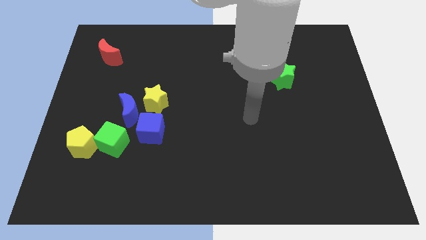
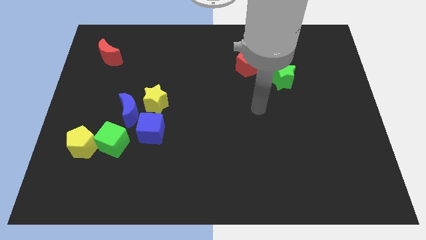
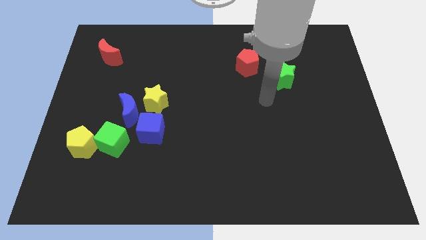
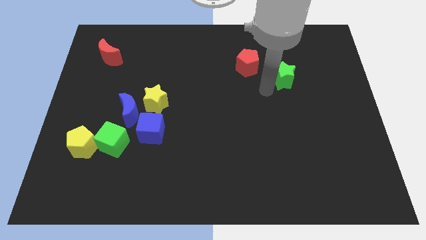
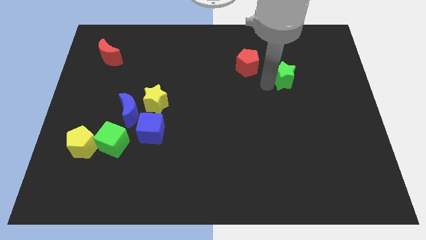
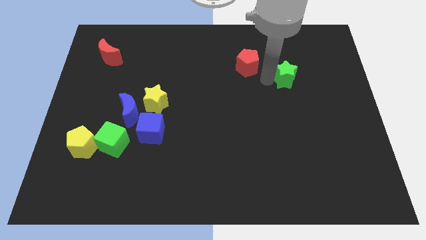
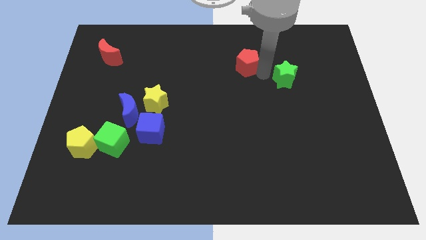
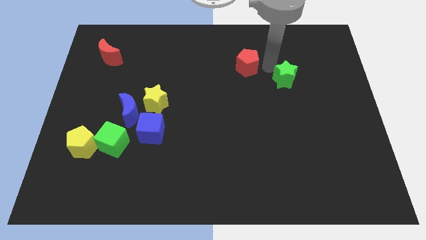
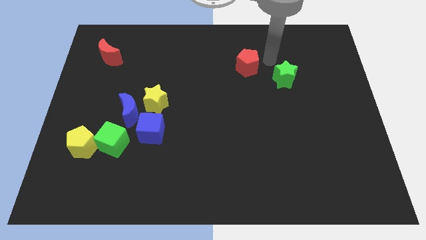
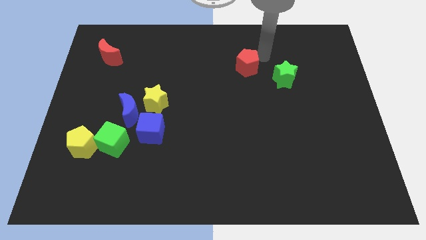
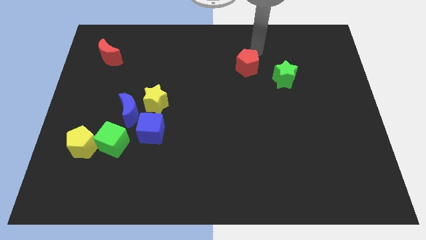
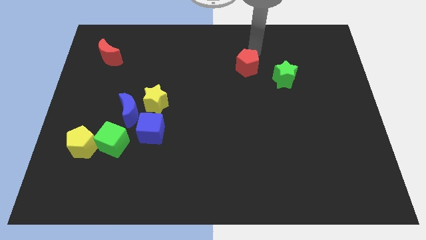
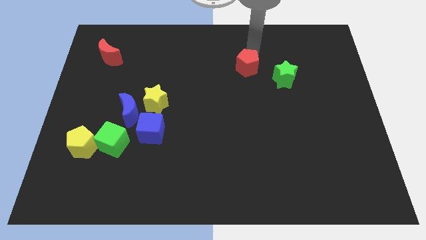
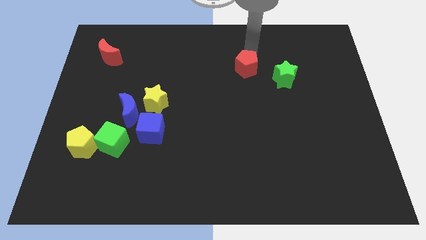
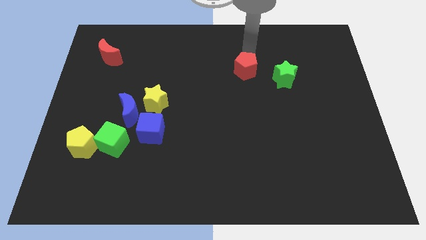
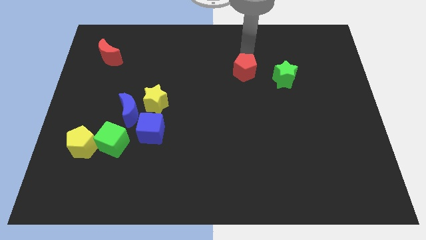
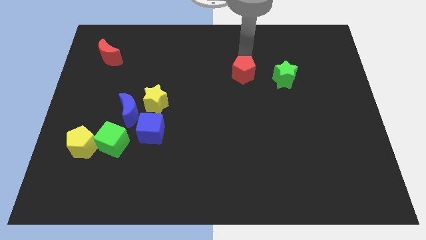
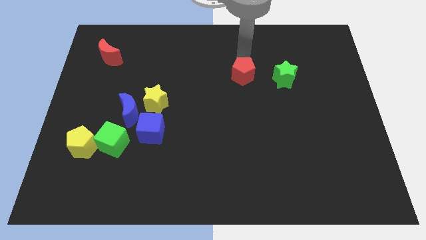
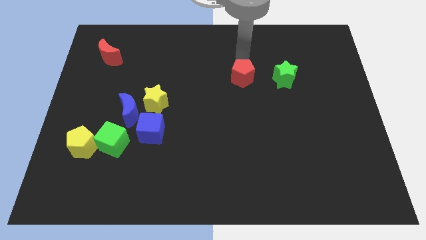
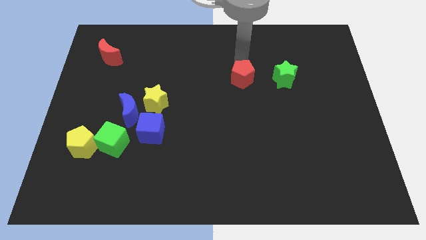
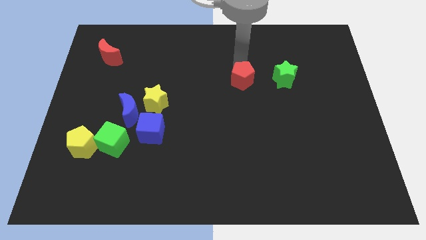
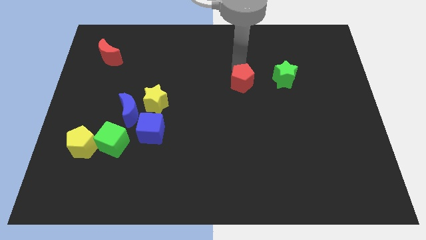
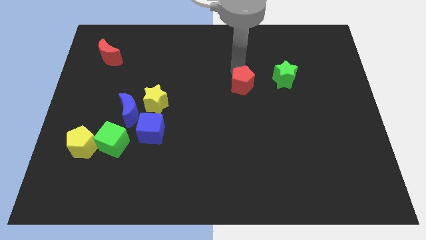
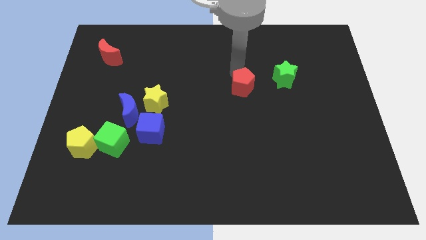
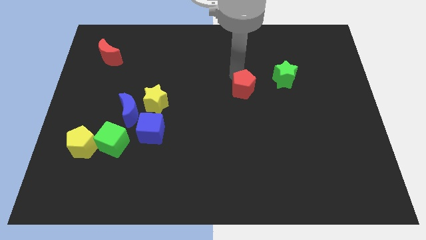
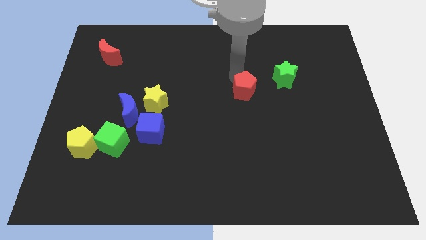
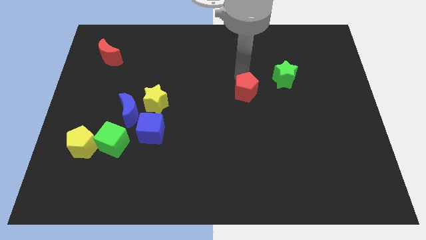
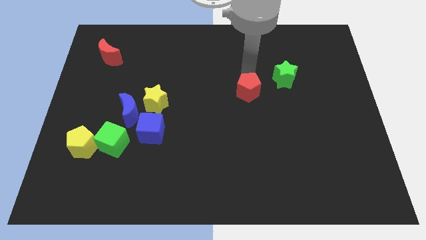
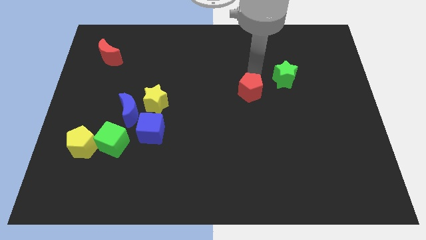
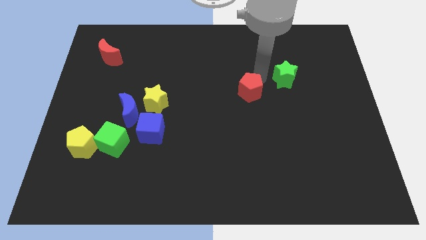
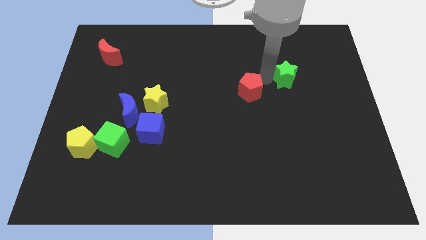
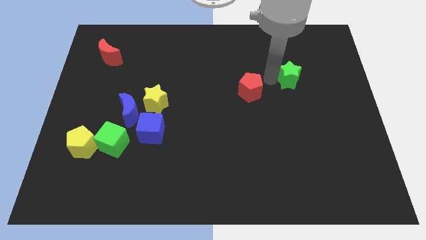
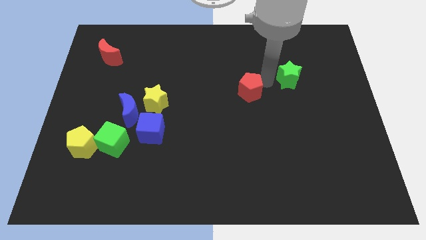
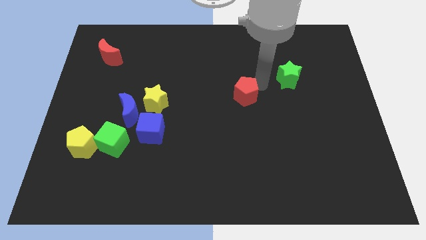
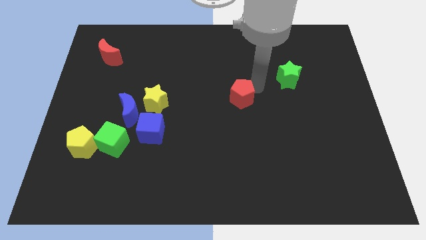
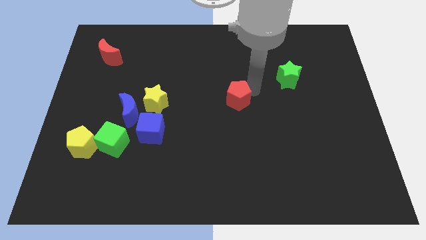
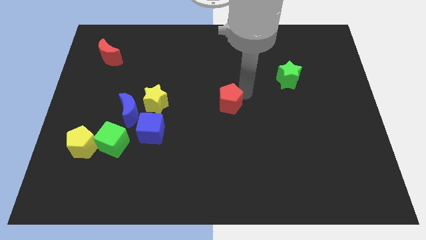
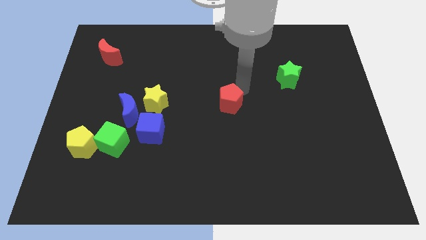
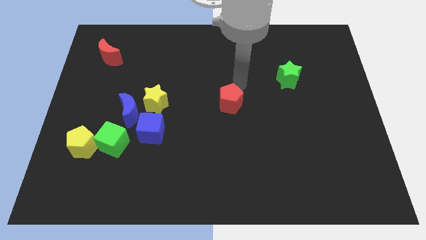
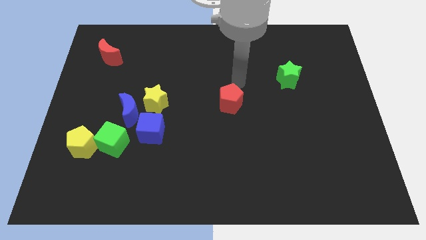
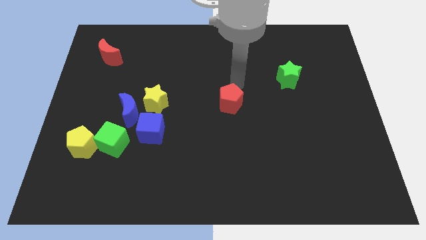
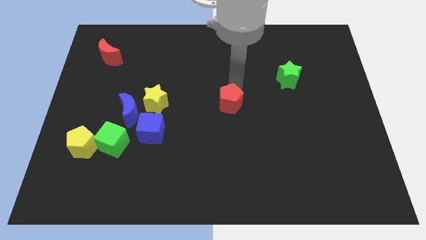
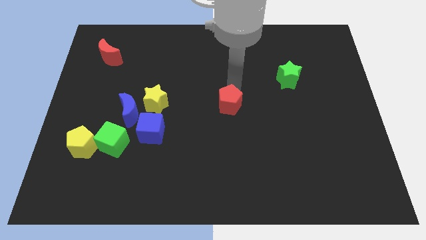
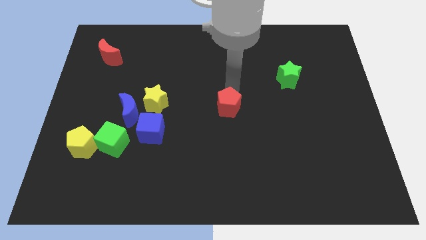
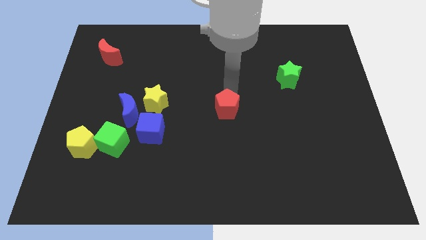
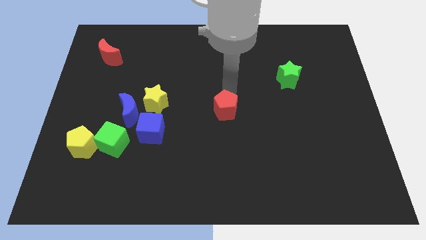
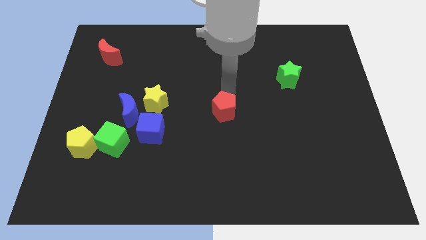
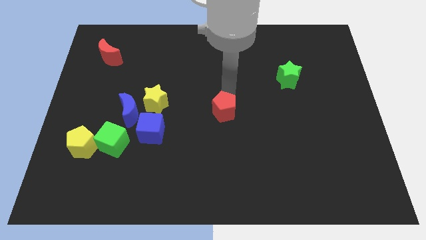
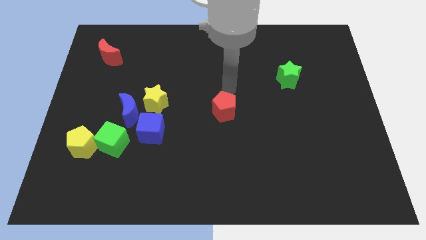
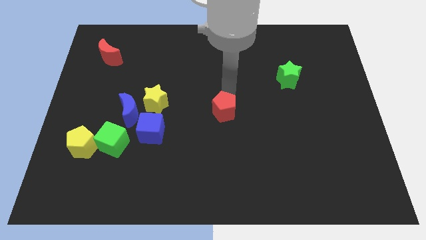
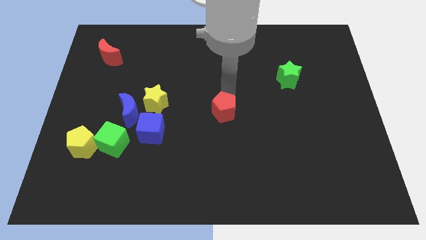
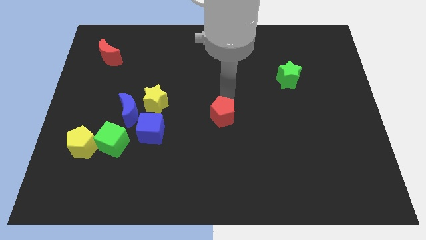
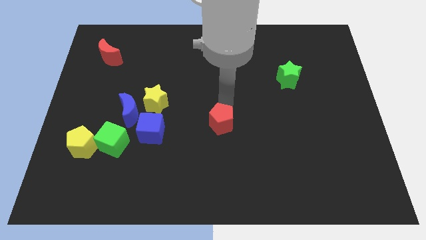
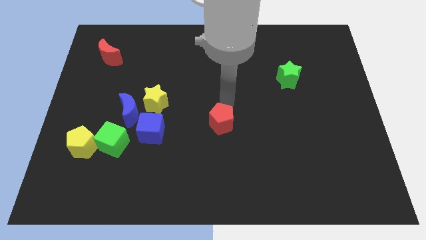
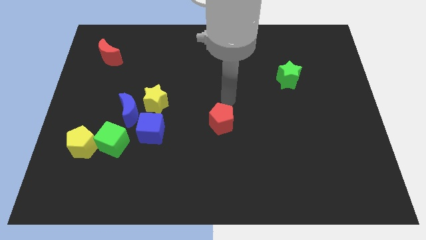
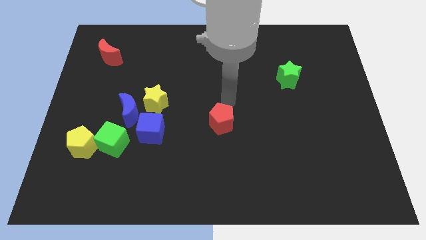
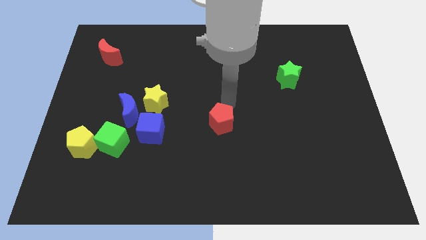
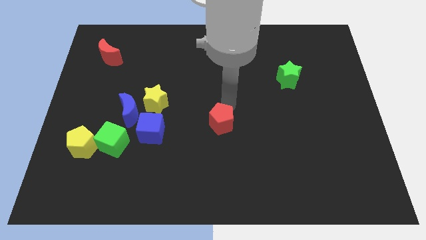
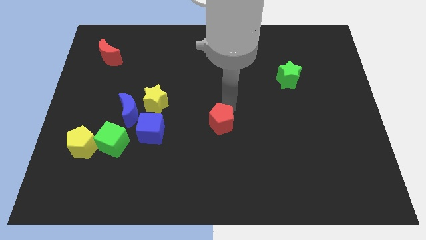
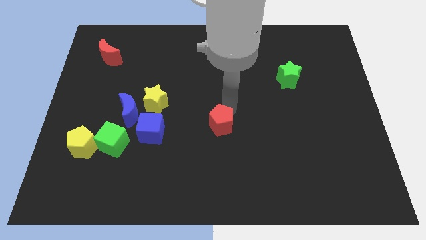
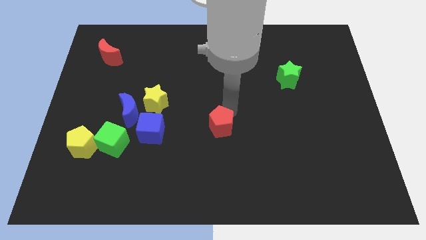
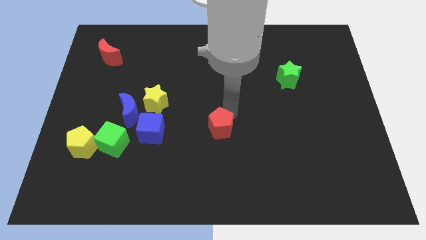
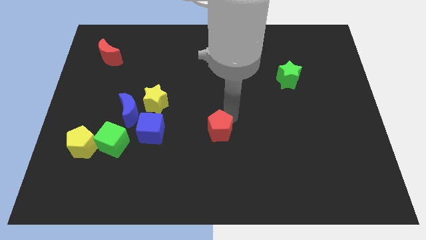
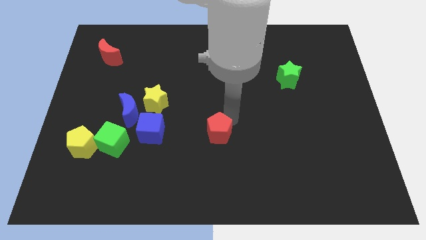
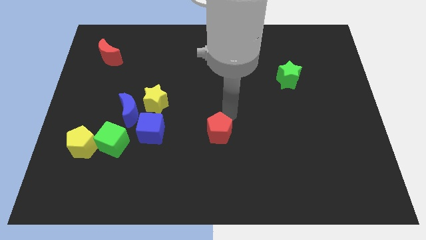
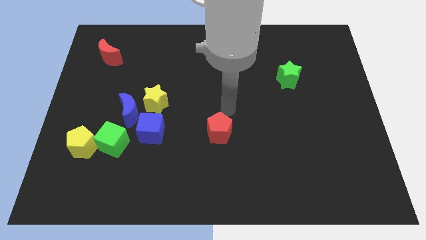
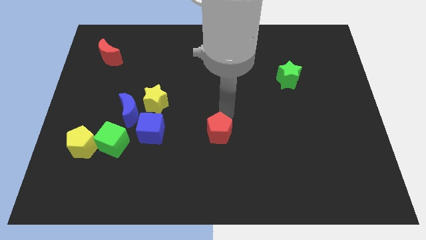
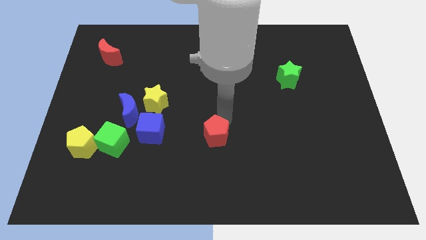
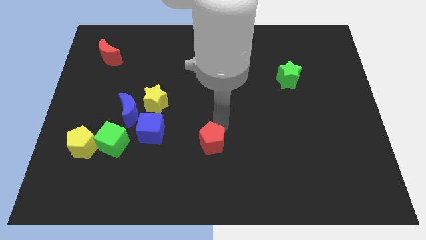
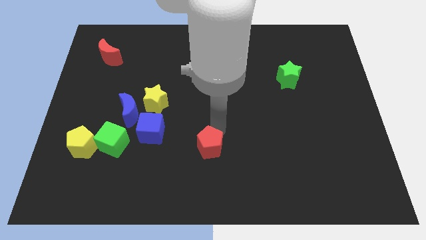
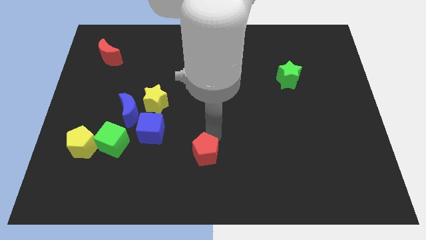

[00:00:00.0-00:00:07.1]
slide the red pentagon to the bottom side
